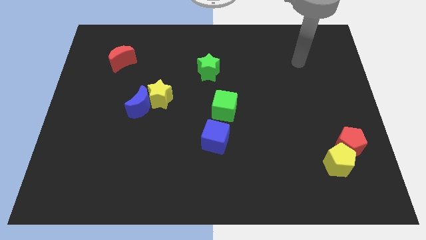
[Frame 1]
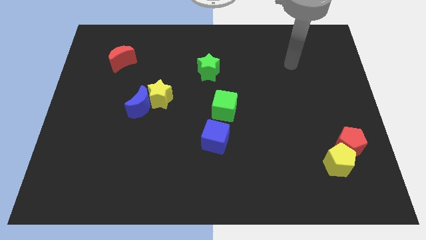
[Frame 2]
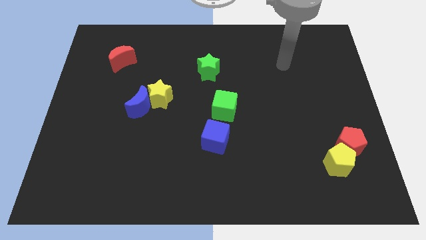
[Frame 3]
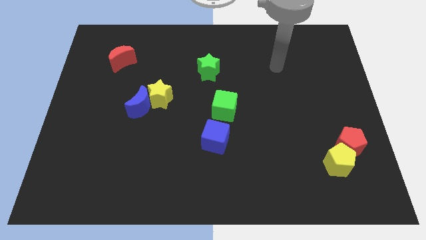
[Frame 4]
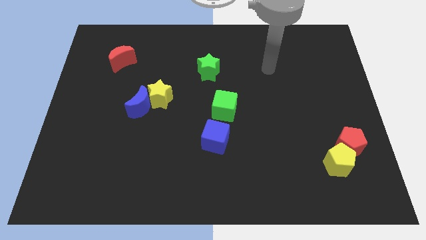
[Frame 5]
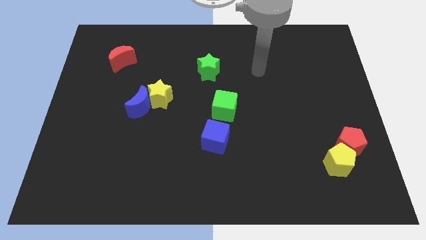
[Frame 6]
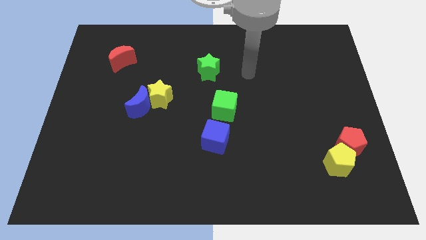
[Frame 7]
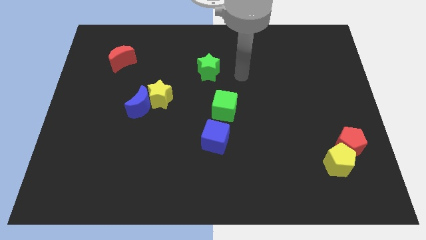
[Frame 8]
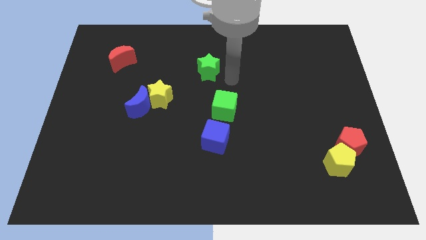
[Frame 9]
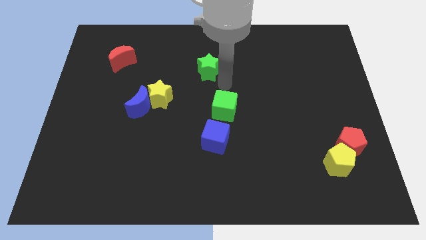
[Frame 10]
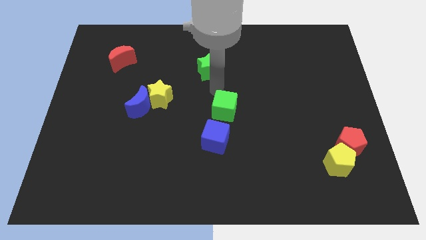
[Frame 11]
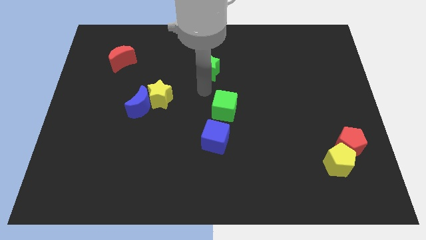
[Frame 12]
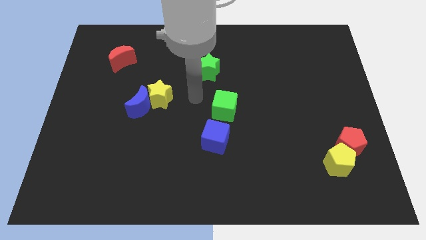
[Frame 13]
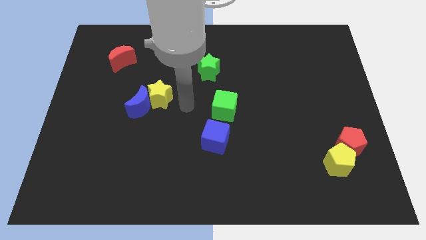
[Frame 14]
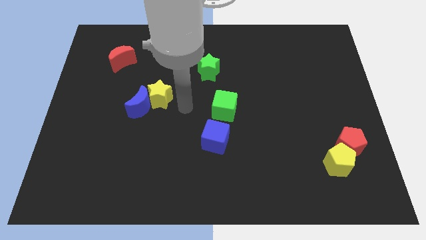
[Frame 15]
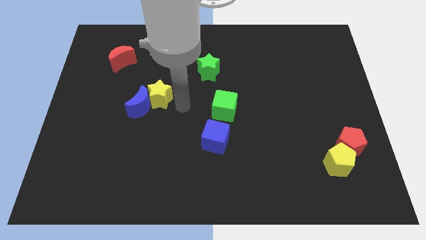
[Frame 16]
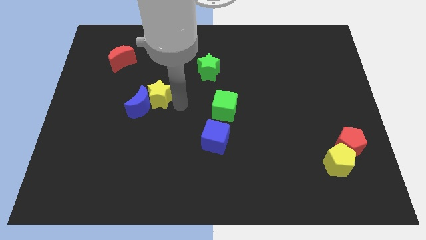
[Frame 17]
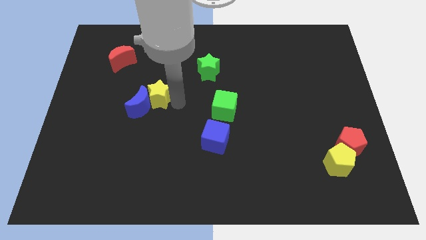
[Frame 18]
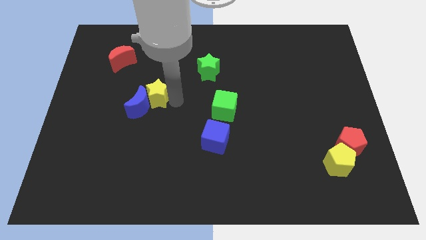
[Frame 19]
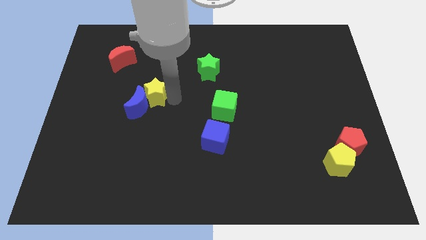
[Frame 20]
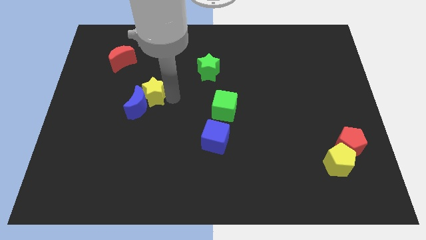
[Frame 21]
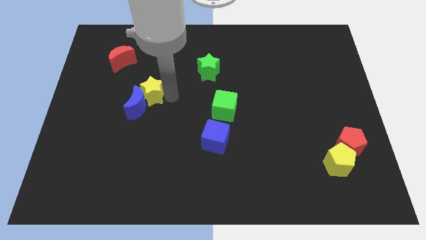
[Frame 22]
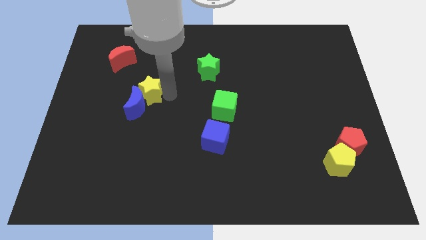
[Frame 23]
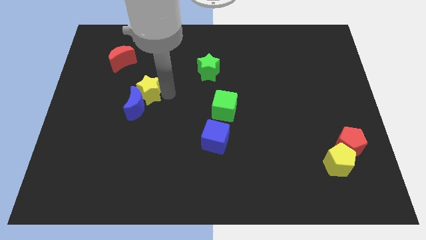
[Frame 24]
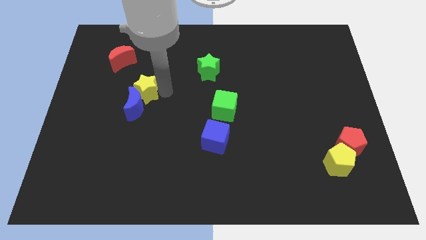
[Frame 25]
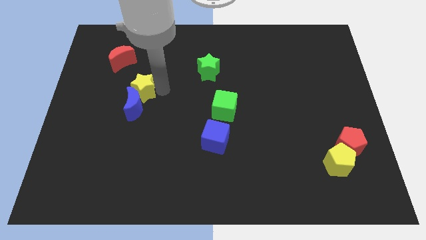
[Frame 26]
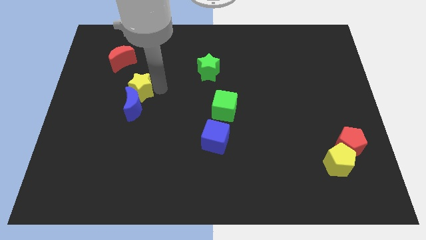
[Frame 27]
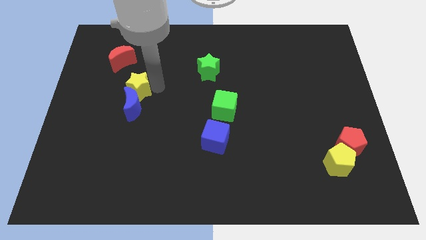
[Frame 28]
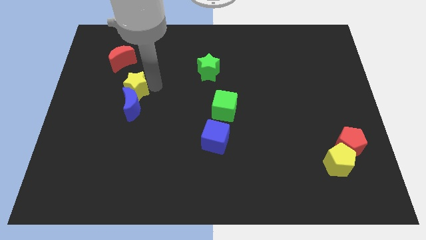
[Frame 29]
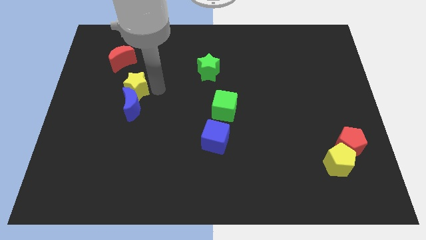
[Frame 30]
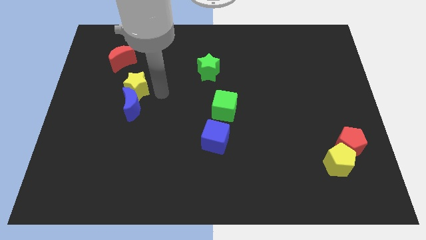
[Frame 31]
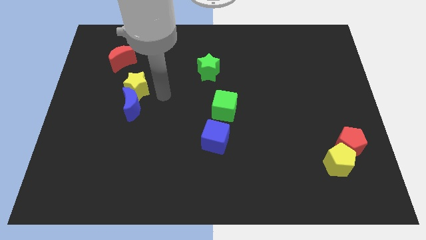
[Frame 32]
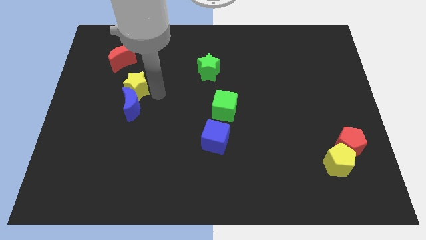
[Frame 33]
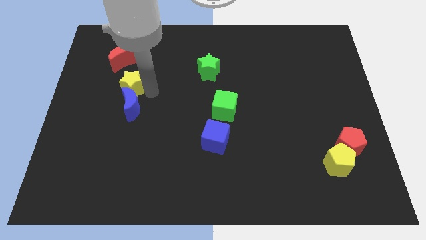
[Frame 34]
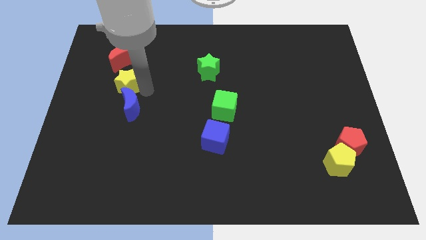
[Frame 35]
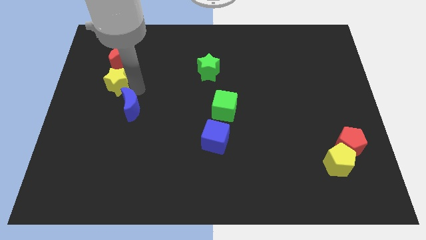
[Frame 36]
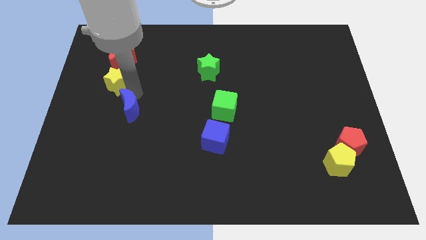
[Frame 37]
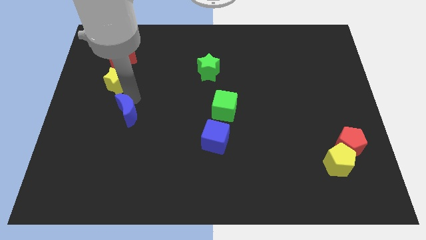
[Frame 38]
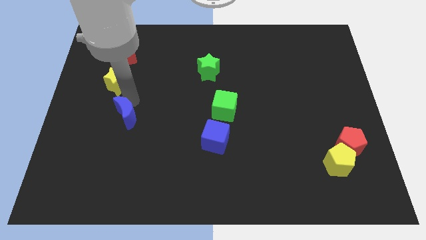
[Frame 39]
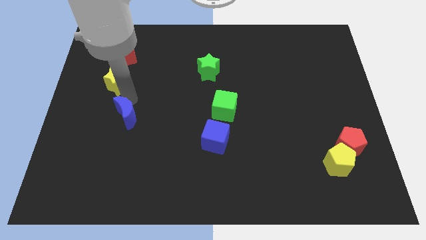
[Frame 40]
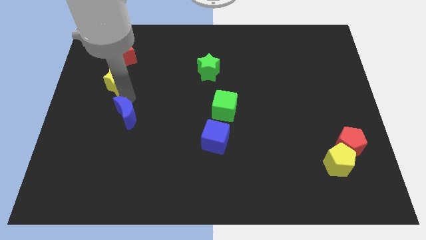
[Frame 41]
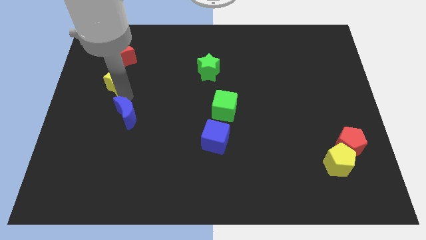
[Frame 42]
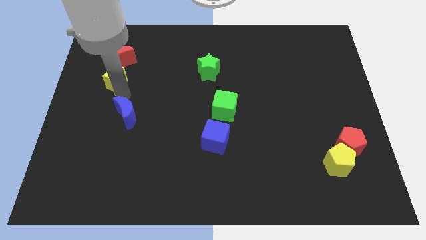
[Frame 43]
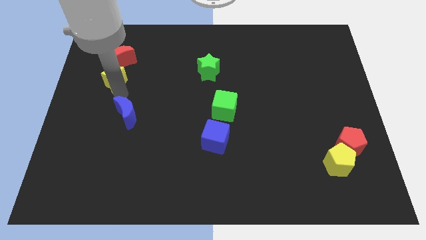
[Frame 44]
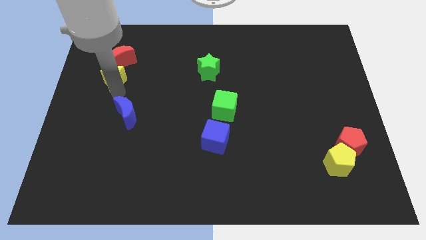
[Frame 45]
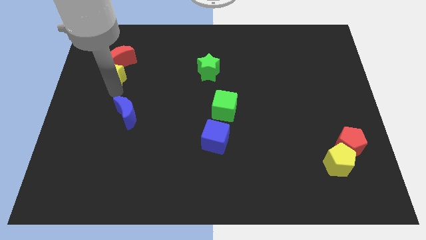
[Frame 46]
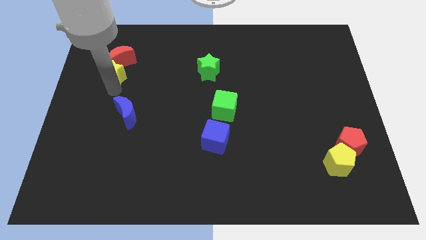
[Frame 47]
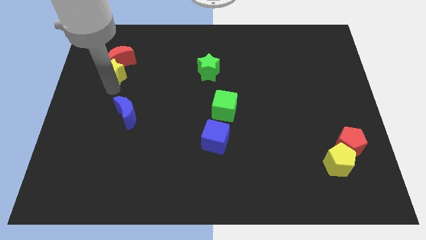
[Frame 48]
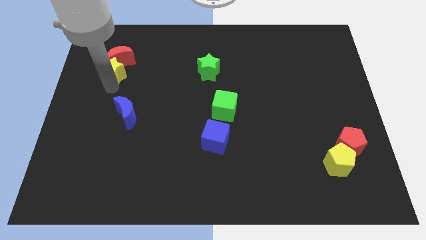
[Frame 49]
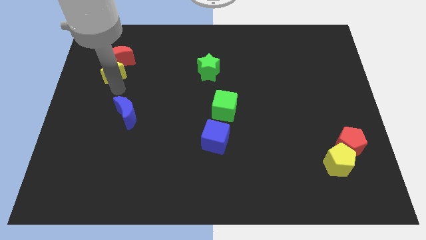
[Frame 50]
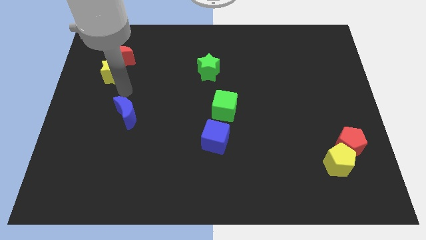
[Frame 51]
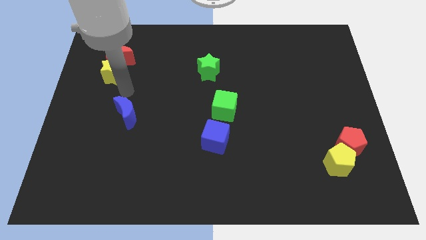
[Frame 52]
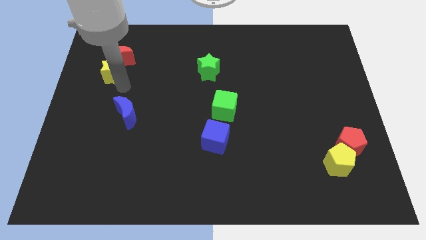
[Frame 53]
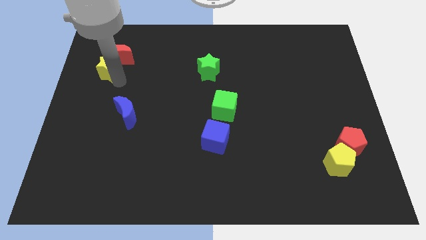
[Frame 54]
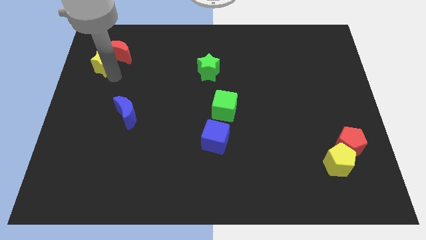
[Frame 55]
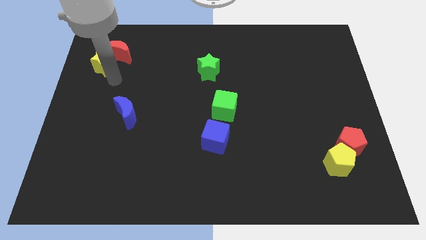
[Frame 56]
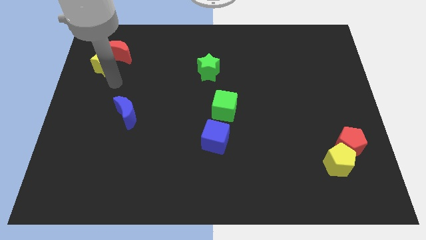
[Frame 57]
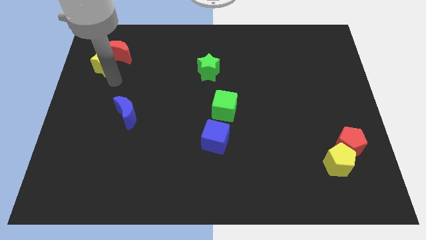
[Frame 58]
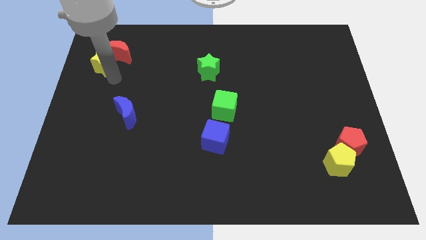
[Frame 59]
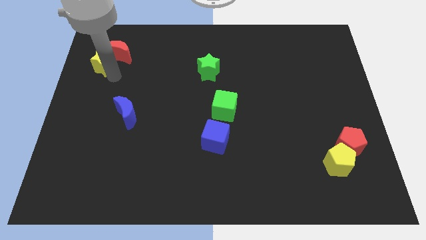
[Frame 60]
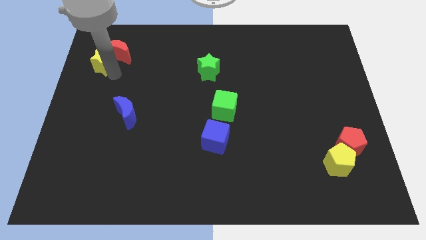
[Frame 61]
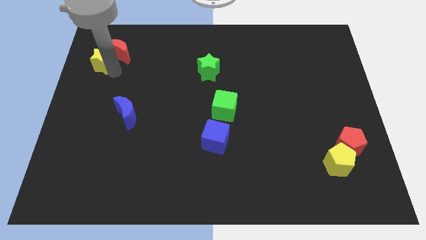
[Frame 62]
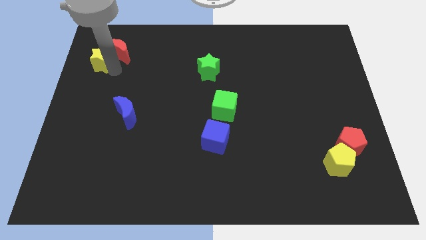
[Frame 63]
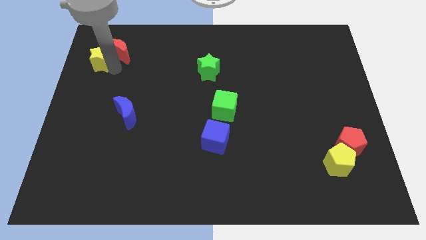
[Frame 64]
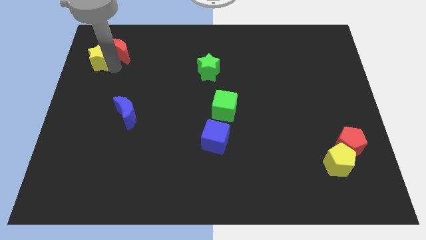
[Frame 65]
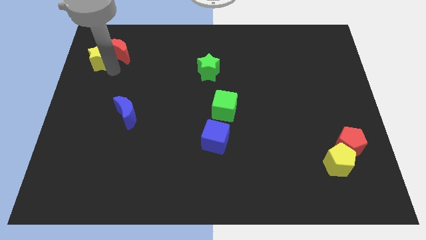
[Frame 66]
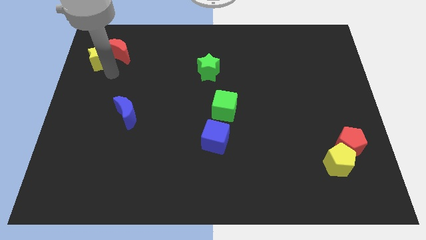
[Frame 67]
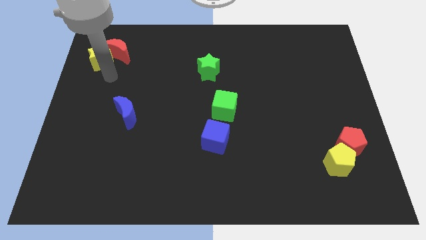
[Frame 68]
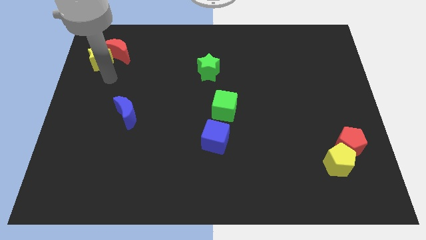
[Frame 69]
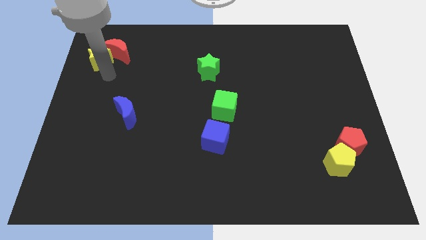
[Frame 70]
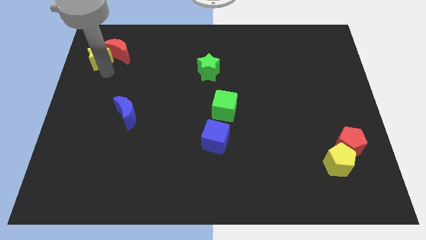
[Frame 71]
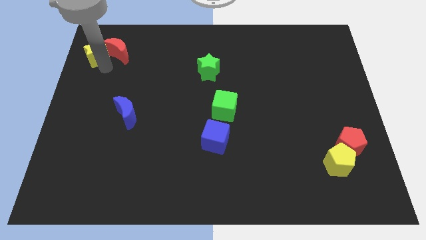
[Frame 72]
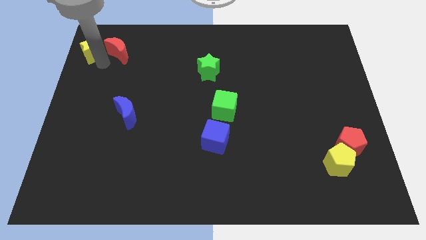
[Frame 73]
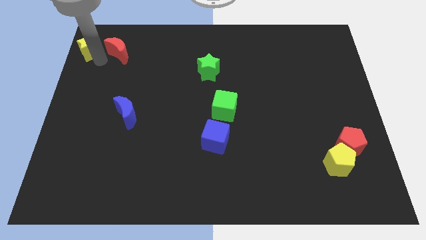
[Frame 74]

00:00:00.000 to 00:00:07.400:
slide the yellow star to the upper left corner
